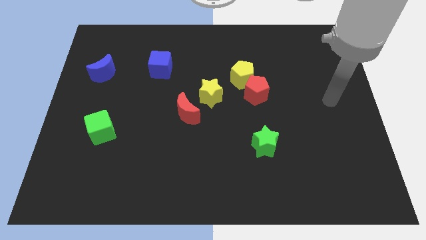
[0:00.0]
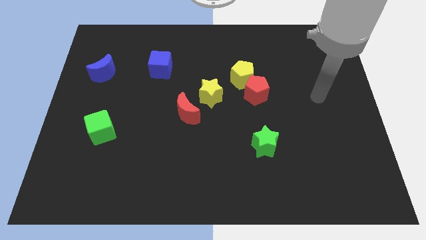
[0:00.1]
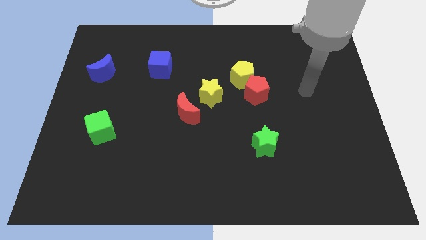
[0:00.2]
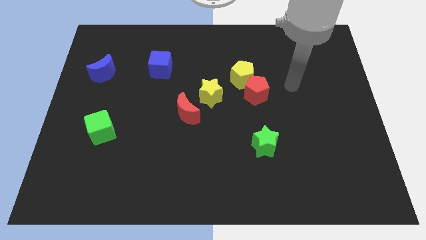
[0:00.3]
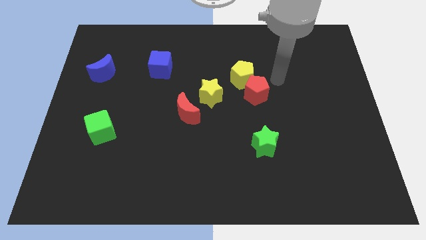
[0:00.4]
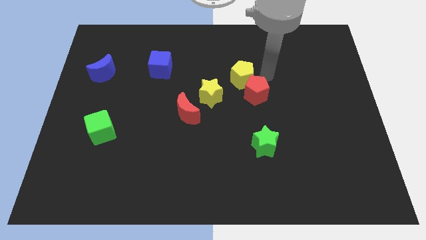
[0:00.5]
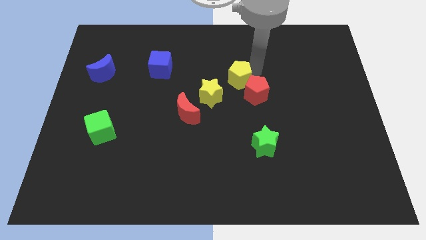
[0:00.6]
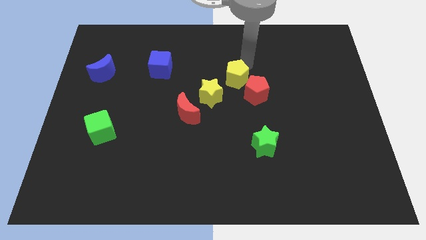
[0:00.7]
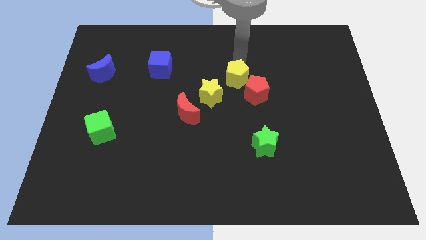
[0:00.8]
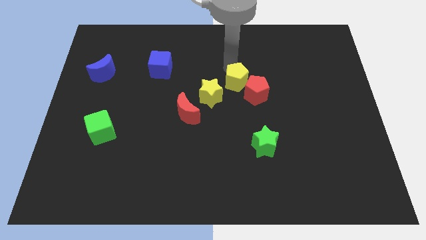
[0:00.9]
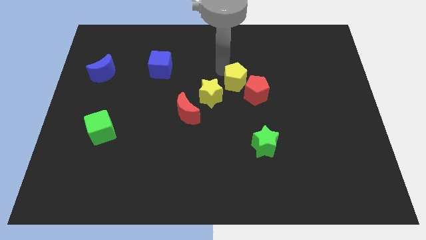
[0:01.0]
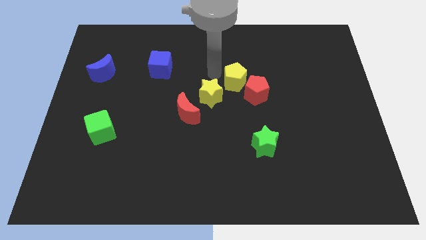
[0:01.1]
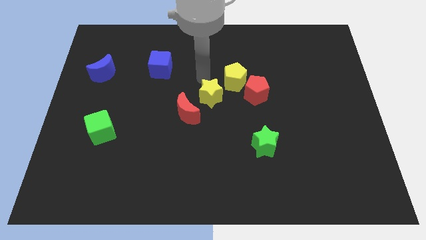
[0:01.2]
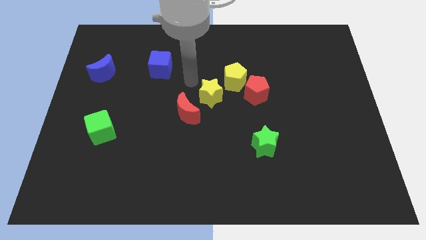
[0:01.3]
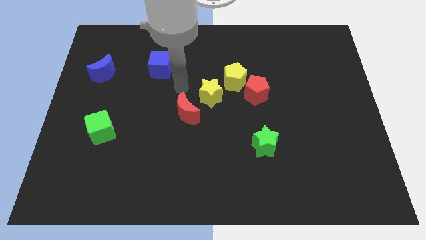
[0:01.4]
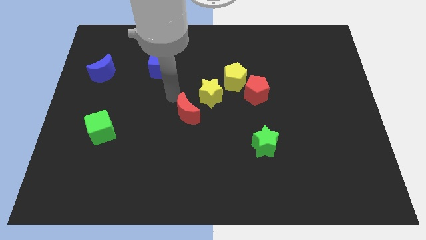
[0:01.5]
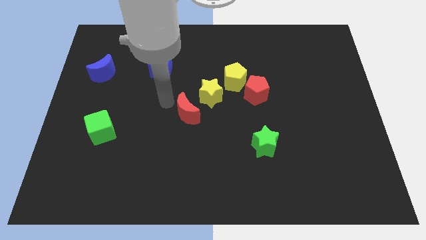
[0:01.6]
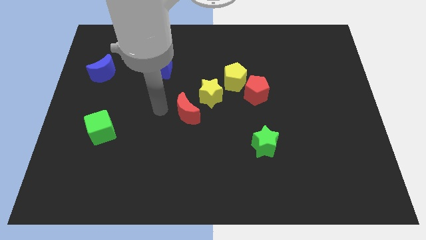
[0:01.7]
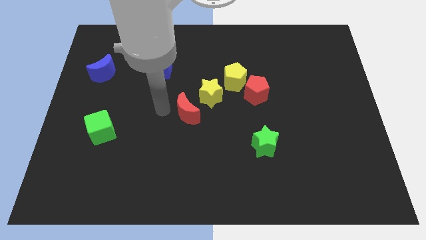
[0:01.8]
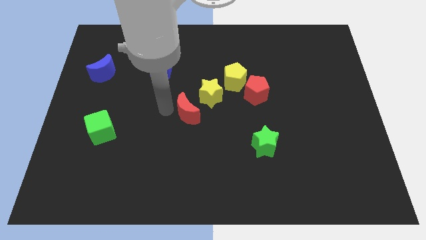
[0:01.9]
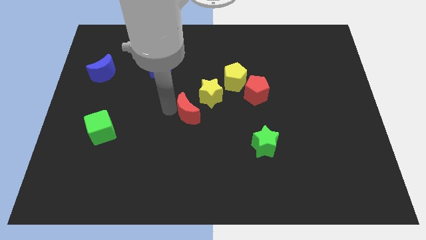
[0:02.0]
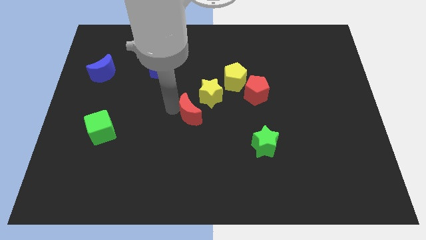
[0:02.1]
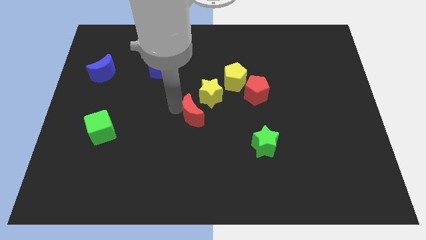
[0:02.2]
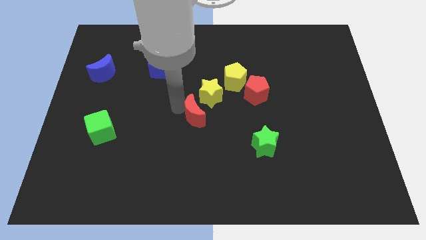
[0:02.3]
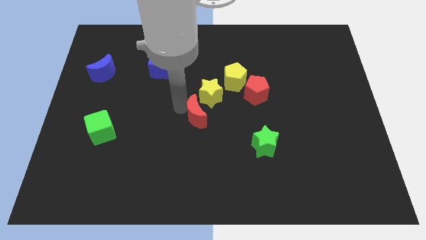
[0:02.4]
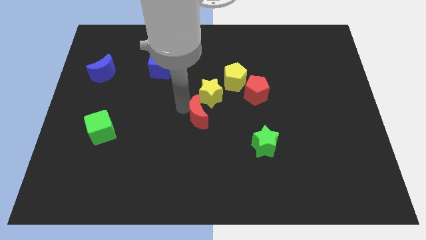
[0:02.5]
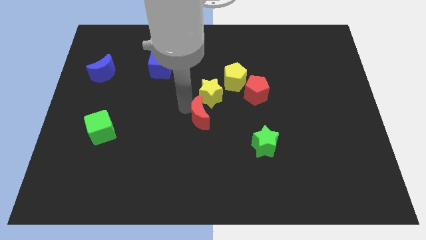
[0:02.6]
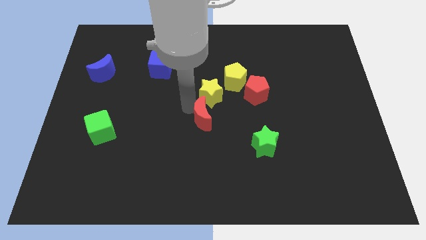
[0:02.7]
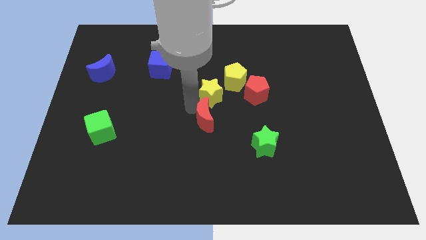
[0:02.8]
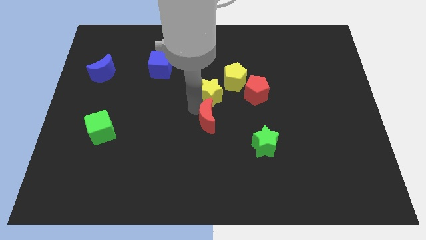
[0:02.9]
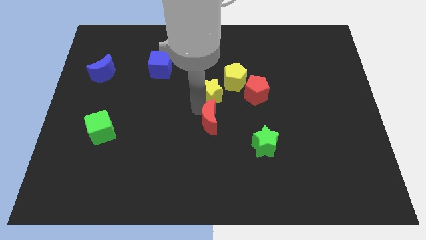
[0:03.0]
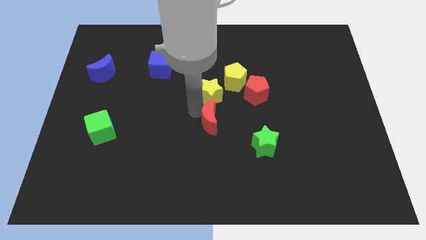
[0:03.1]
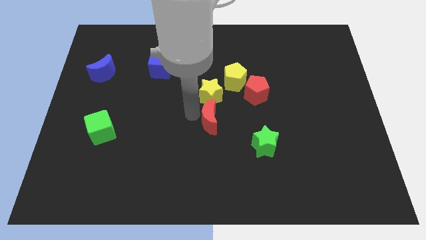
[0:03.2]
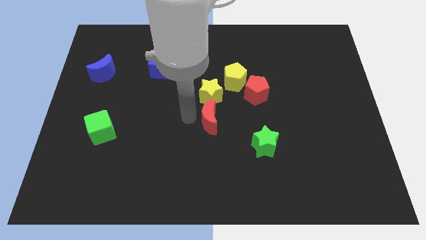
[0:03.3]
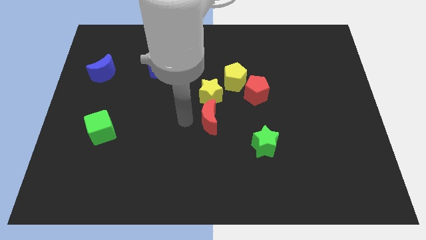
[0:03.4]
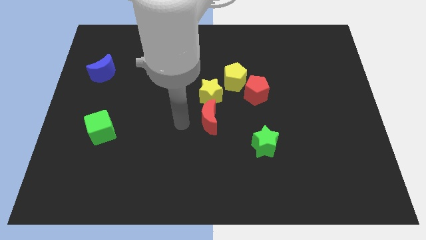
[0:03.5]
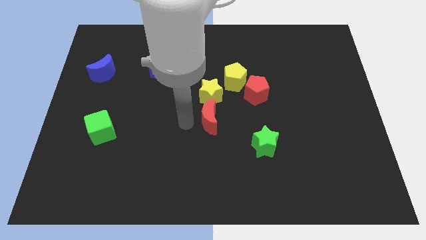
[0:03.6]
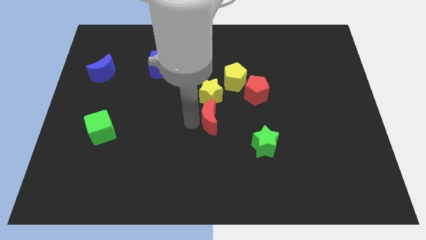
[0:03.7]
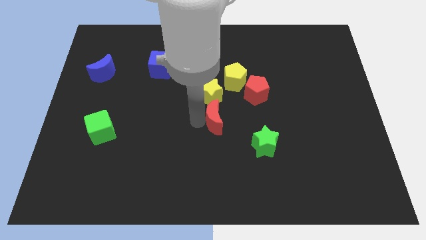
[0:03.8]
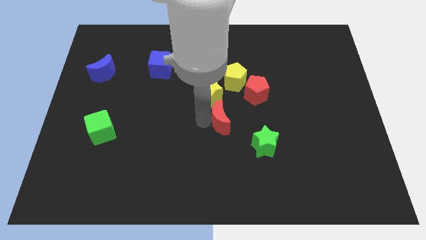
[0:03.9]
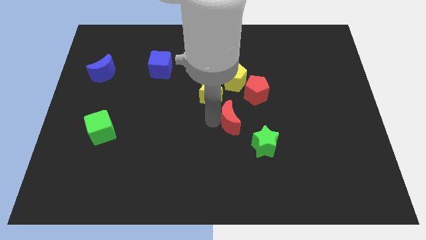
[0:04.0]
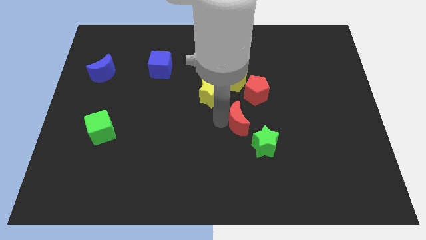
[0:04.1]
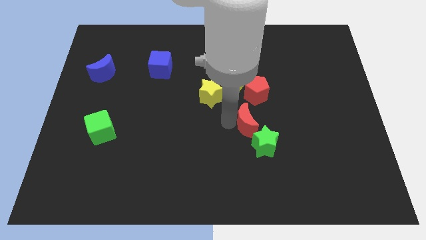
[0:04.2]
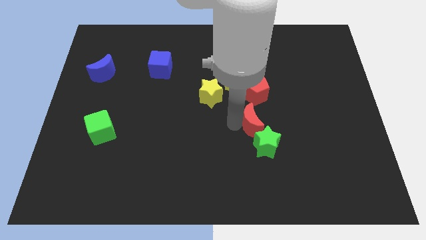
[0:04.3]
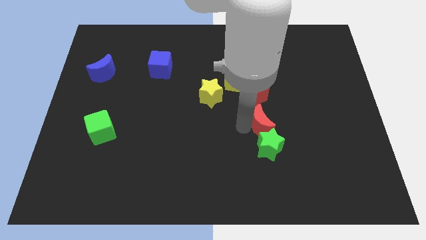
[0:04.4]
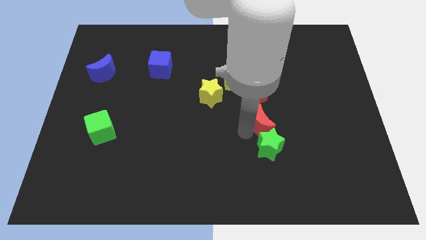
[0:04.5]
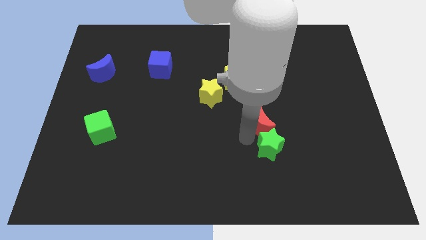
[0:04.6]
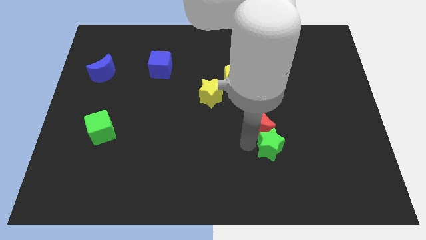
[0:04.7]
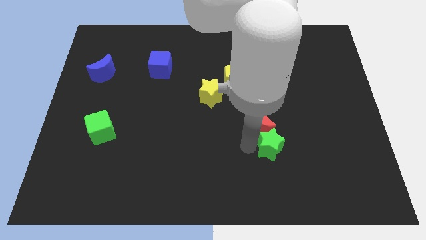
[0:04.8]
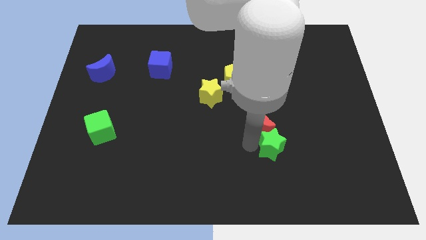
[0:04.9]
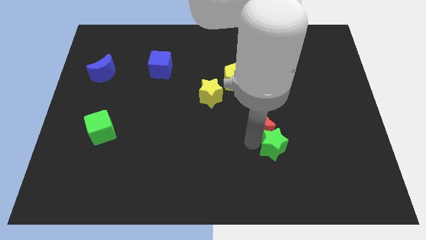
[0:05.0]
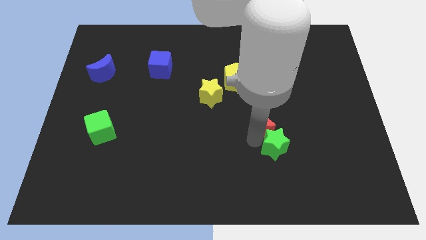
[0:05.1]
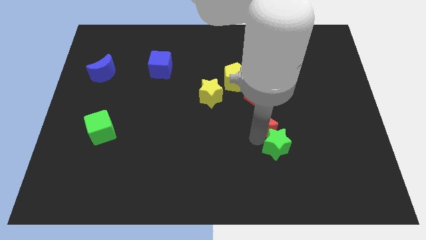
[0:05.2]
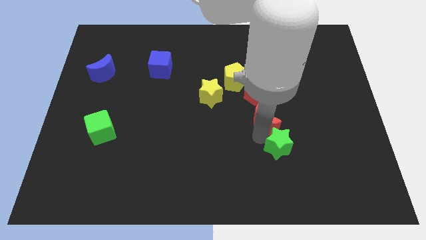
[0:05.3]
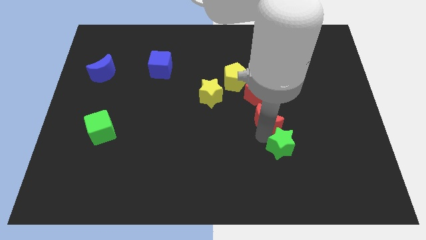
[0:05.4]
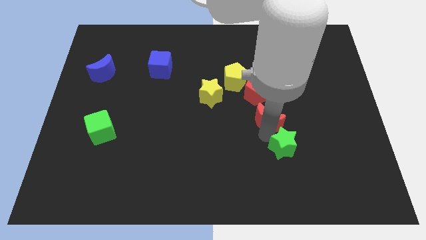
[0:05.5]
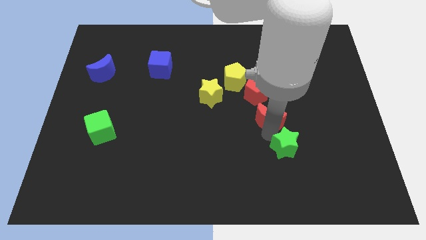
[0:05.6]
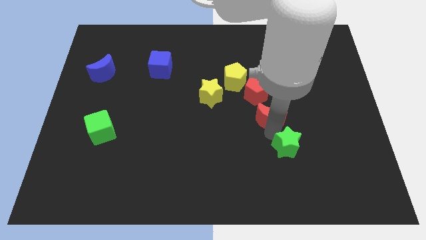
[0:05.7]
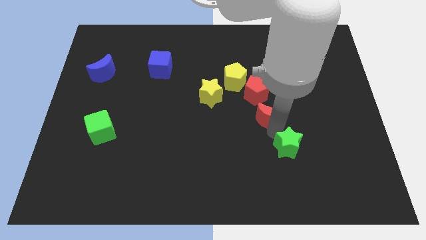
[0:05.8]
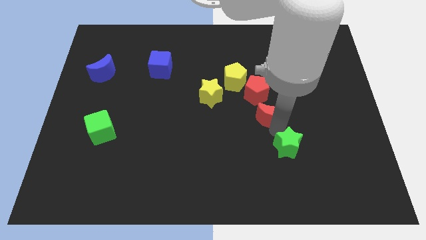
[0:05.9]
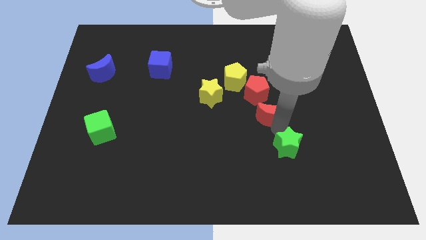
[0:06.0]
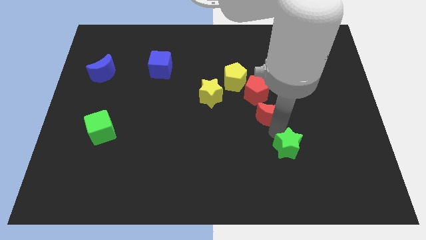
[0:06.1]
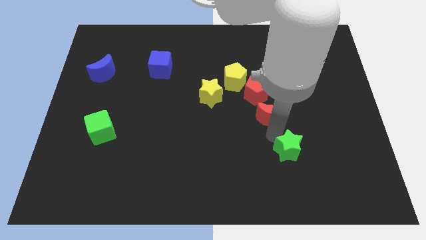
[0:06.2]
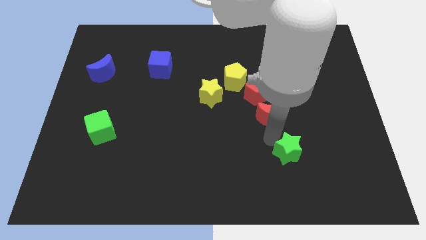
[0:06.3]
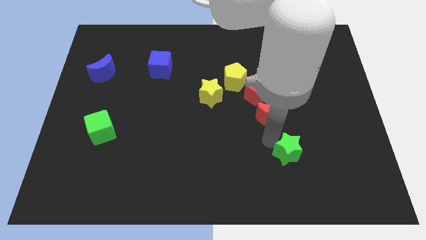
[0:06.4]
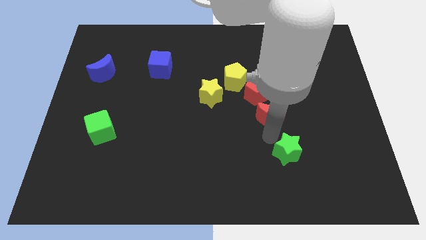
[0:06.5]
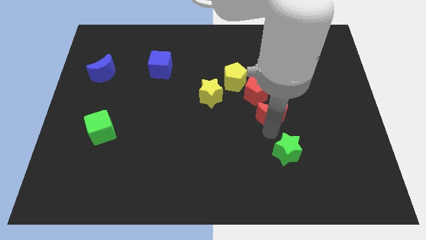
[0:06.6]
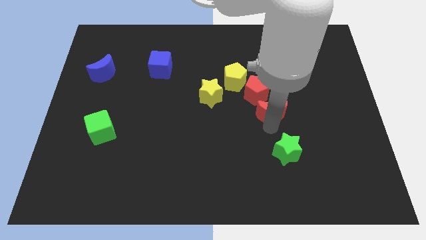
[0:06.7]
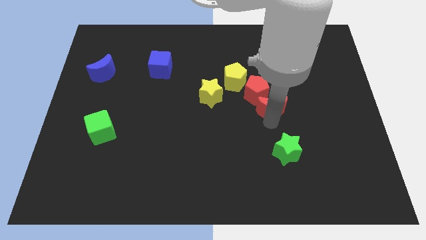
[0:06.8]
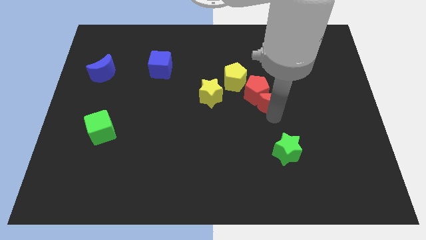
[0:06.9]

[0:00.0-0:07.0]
put the red moon right of the yellow star

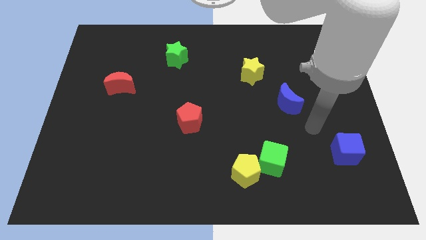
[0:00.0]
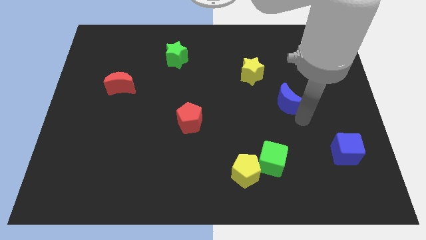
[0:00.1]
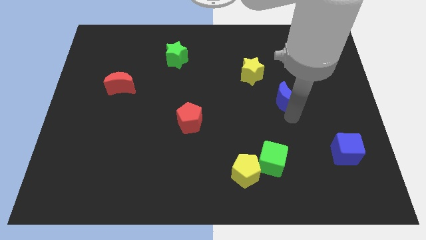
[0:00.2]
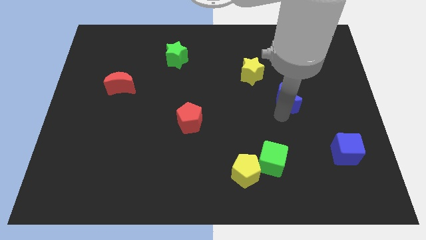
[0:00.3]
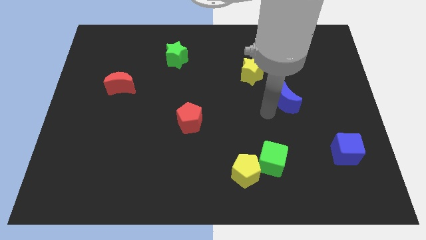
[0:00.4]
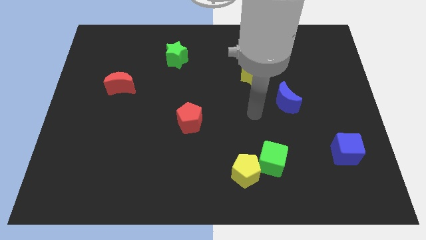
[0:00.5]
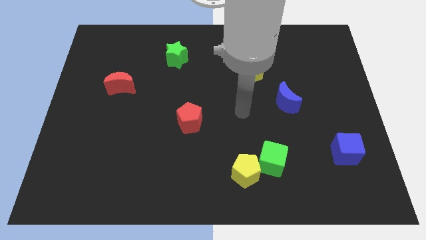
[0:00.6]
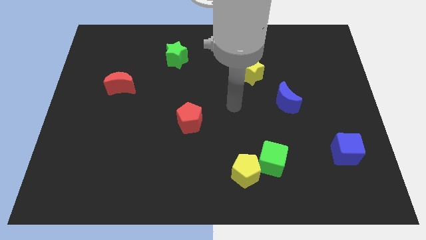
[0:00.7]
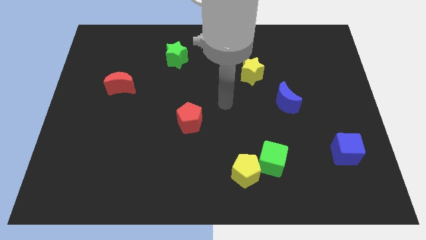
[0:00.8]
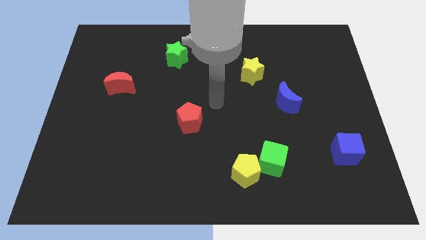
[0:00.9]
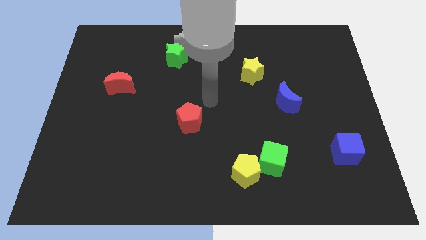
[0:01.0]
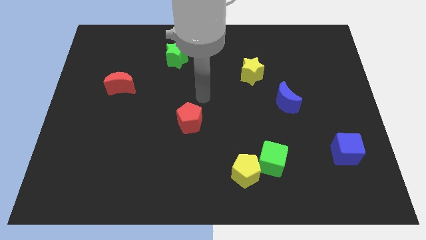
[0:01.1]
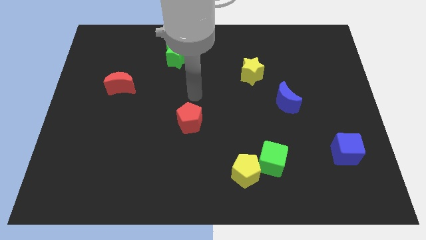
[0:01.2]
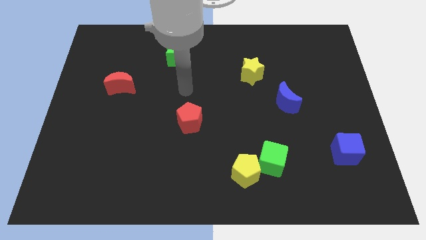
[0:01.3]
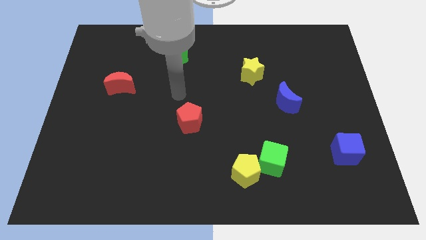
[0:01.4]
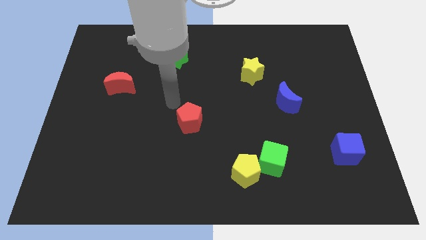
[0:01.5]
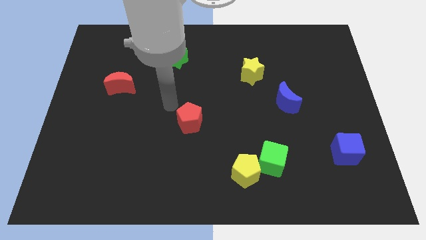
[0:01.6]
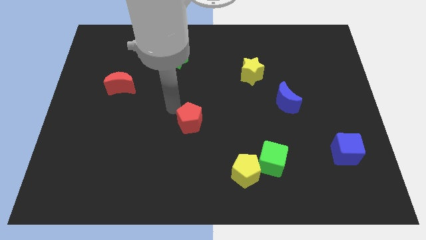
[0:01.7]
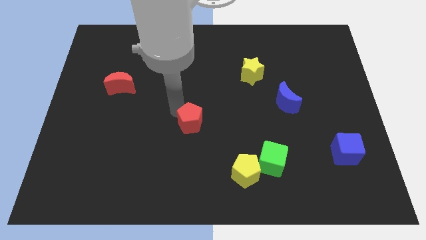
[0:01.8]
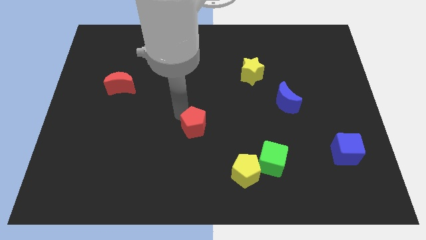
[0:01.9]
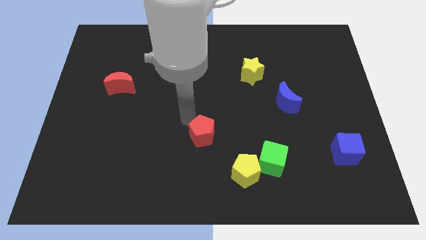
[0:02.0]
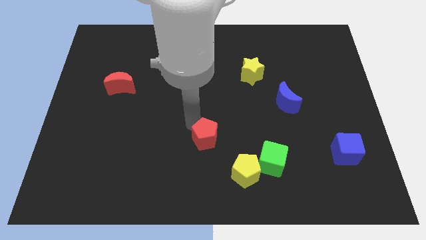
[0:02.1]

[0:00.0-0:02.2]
put the red pentagon to the top left of the yellow pentagon
